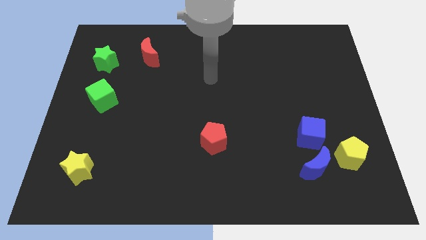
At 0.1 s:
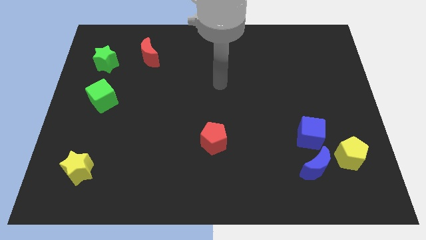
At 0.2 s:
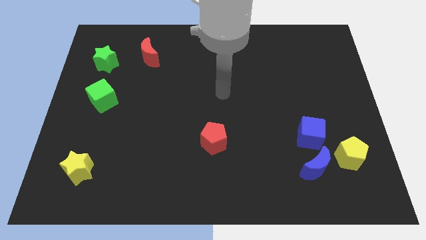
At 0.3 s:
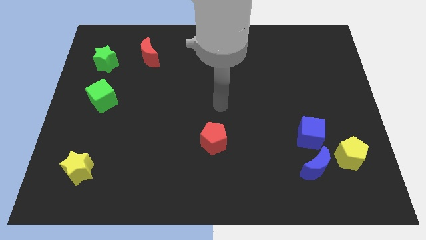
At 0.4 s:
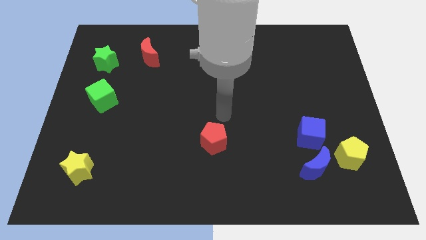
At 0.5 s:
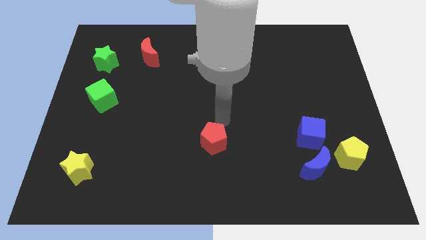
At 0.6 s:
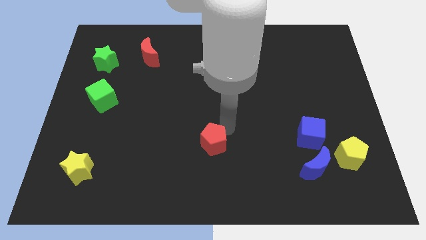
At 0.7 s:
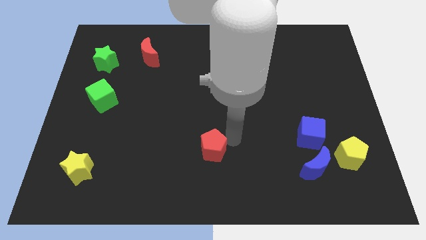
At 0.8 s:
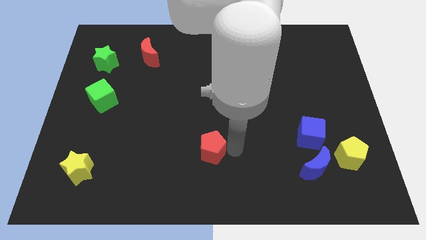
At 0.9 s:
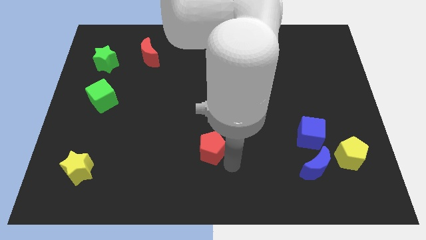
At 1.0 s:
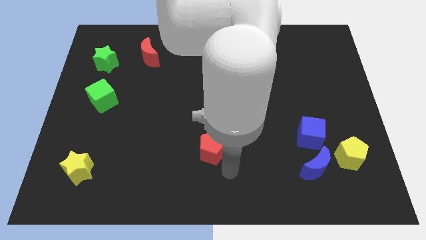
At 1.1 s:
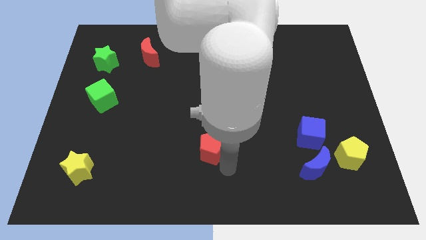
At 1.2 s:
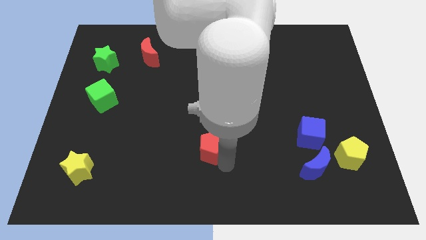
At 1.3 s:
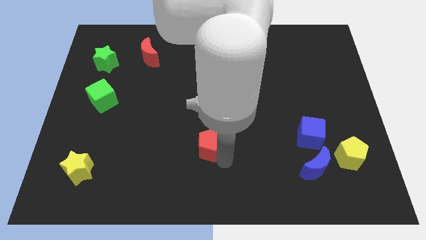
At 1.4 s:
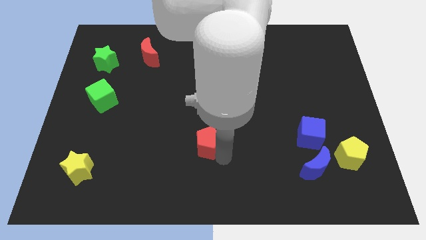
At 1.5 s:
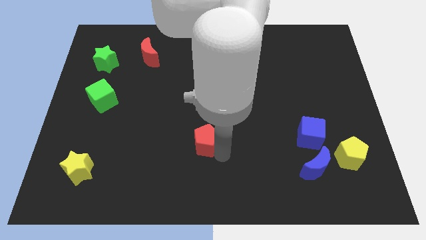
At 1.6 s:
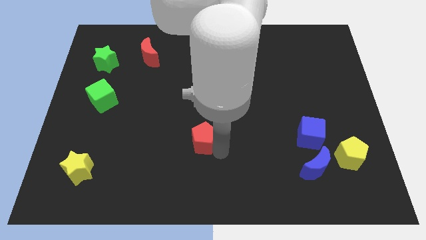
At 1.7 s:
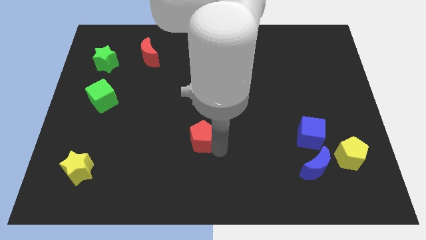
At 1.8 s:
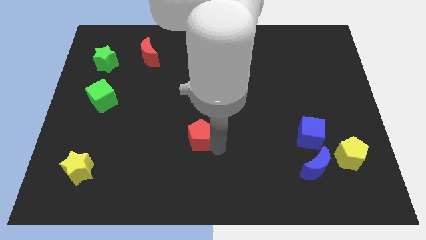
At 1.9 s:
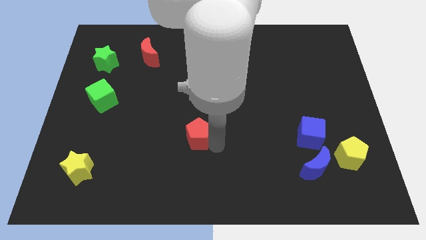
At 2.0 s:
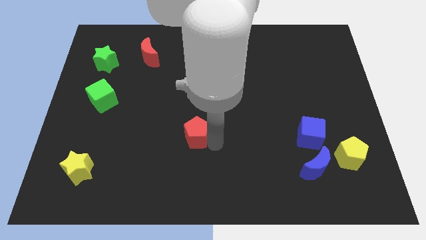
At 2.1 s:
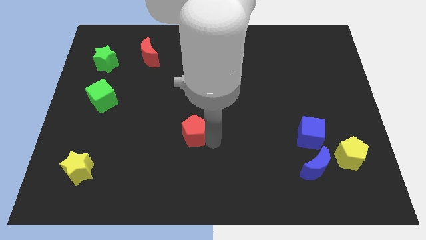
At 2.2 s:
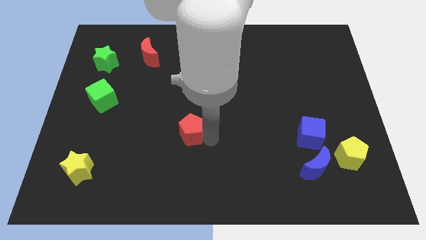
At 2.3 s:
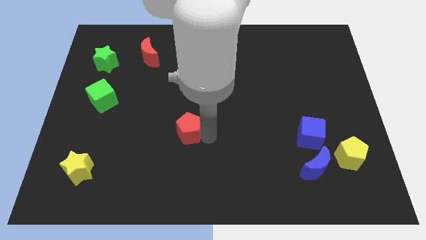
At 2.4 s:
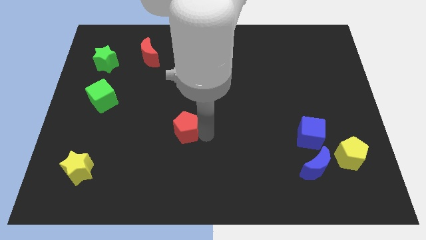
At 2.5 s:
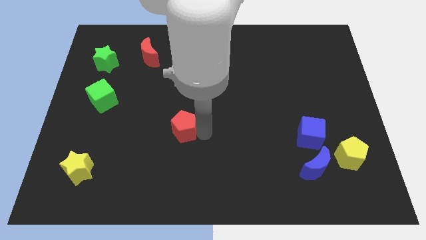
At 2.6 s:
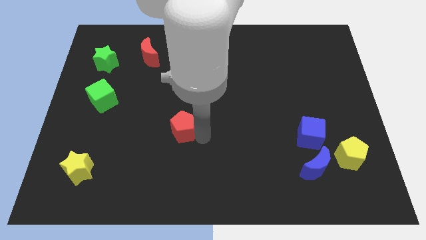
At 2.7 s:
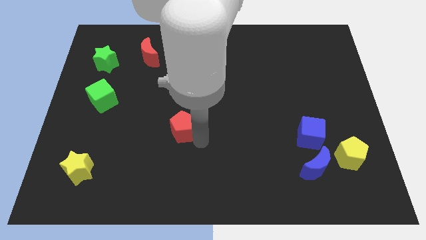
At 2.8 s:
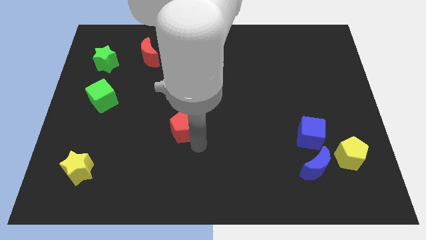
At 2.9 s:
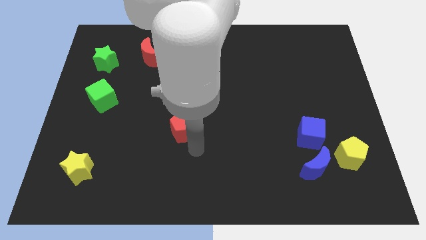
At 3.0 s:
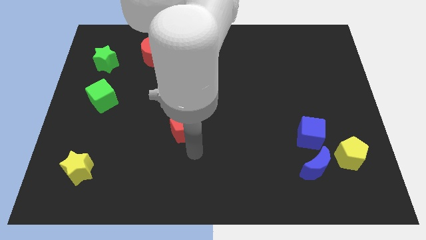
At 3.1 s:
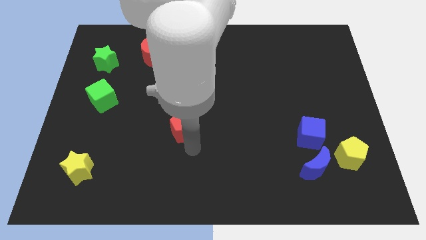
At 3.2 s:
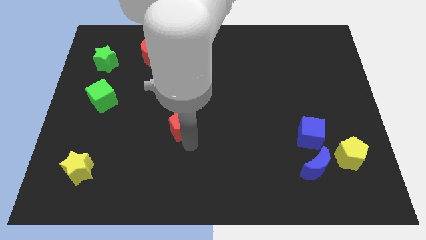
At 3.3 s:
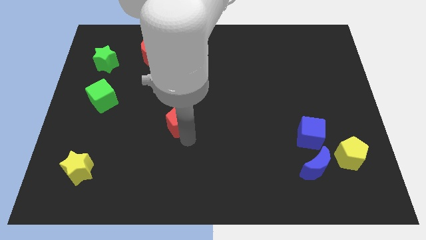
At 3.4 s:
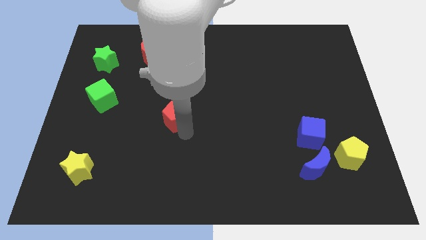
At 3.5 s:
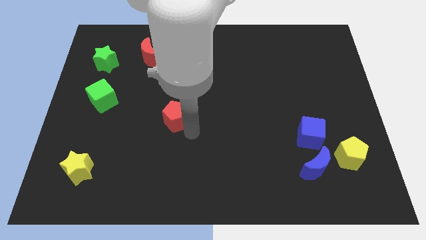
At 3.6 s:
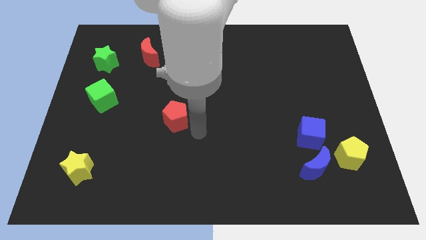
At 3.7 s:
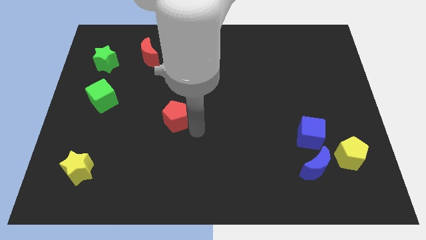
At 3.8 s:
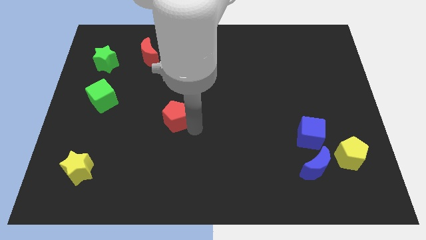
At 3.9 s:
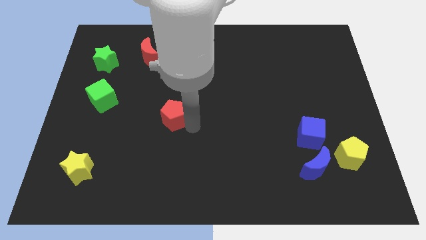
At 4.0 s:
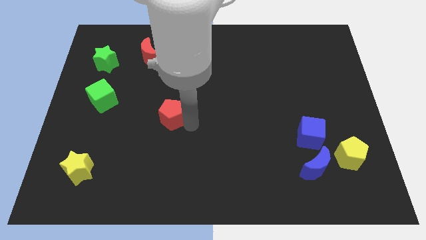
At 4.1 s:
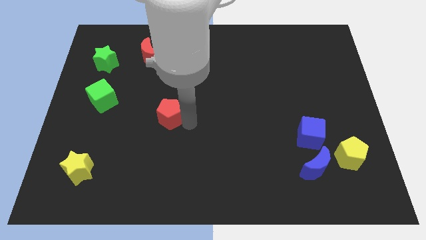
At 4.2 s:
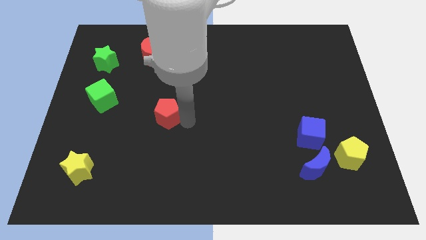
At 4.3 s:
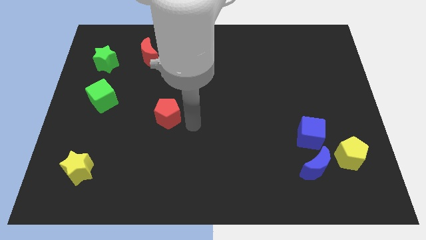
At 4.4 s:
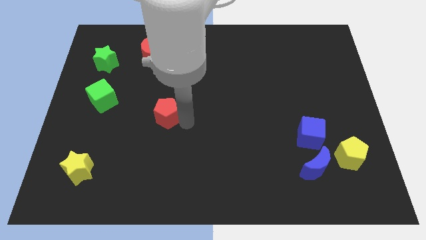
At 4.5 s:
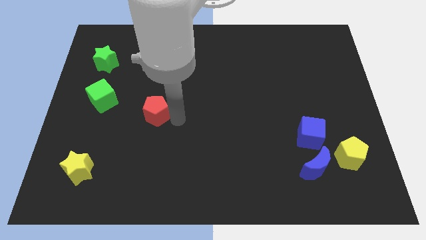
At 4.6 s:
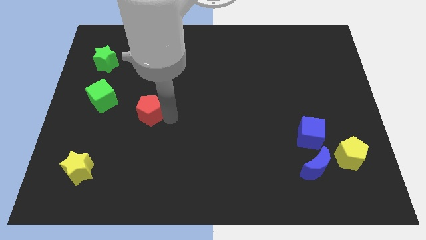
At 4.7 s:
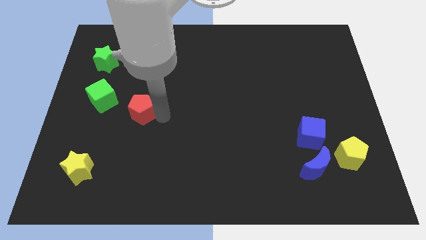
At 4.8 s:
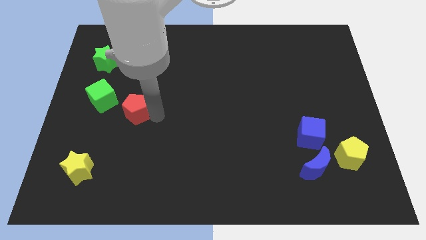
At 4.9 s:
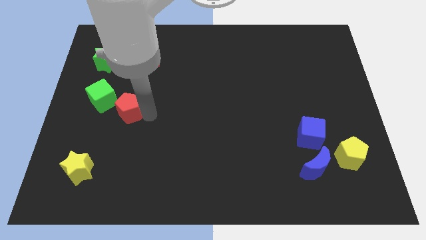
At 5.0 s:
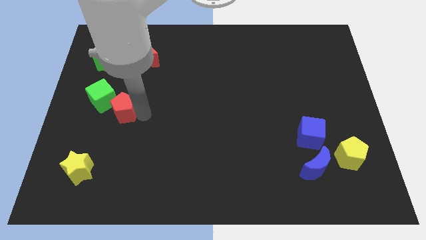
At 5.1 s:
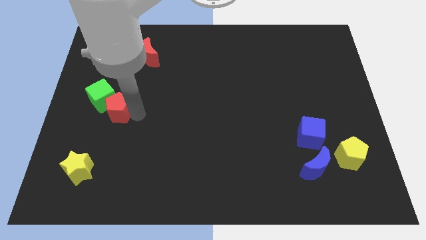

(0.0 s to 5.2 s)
slide the red pentagon next to the green cube

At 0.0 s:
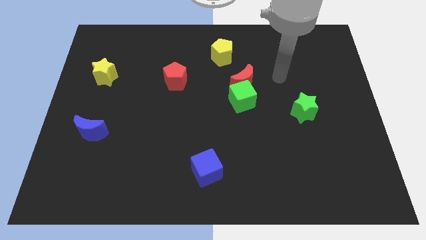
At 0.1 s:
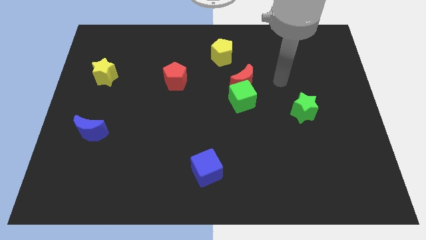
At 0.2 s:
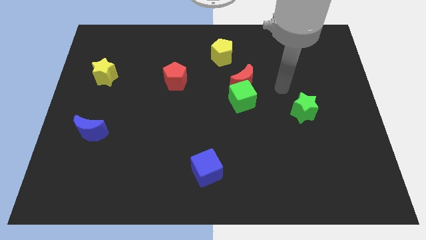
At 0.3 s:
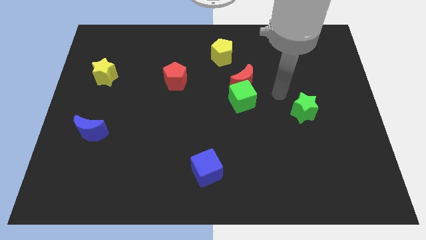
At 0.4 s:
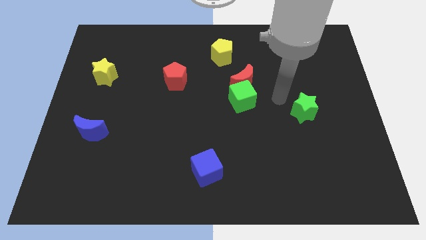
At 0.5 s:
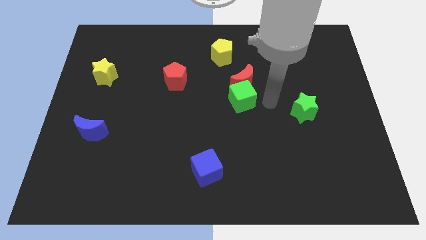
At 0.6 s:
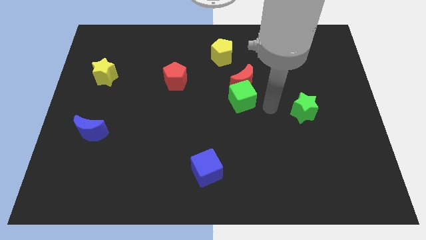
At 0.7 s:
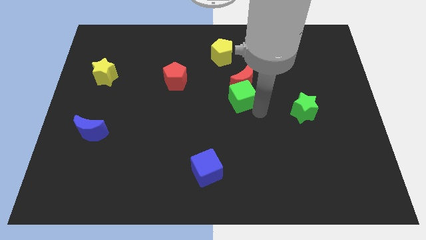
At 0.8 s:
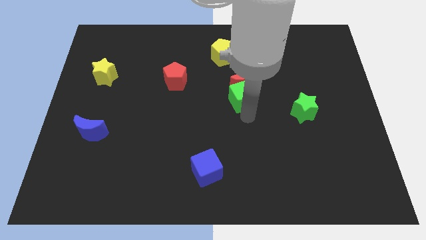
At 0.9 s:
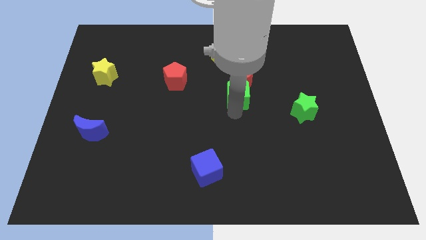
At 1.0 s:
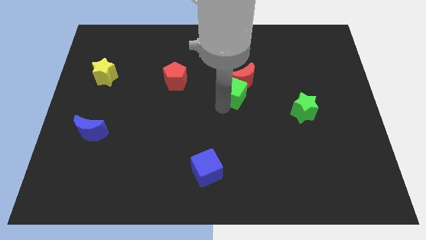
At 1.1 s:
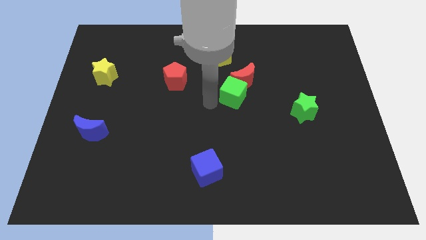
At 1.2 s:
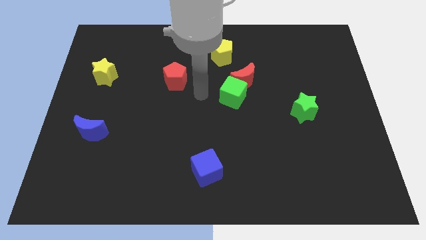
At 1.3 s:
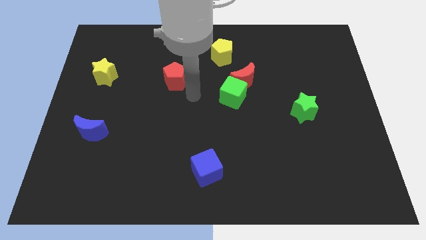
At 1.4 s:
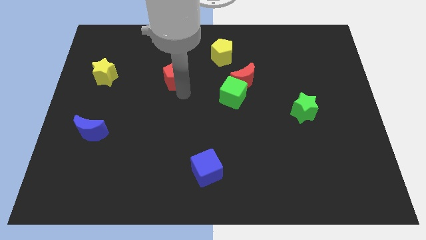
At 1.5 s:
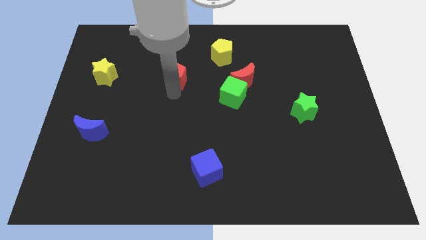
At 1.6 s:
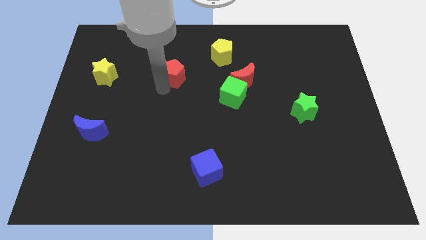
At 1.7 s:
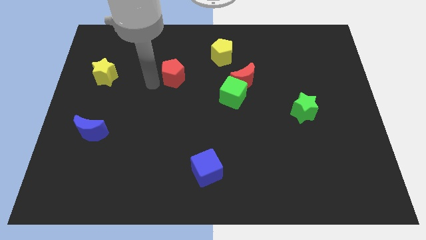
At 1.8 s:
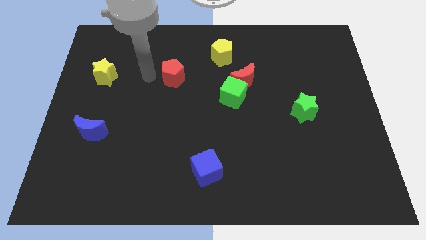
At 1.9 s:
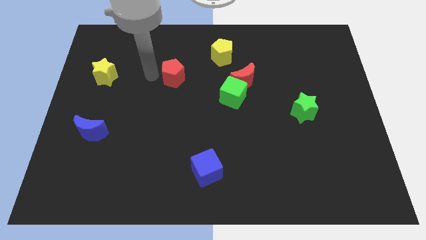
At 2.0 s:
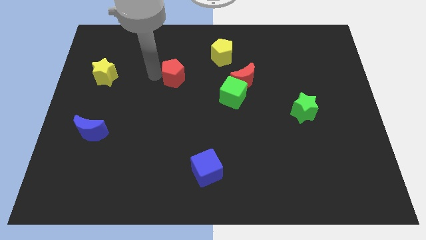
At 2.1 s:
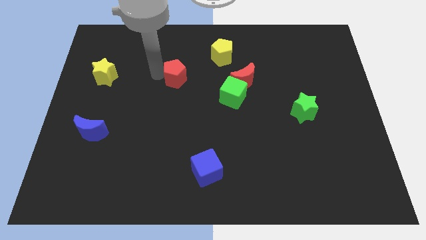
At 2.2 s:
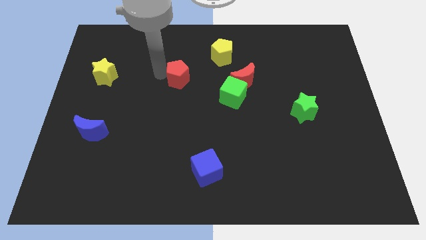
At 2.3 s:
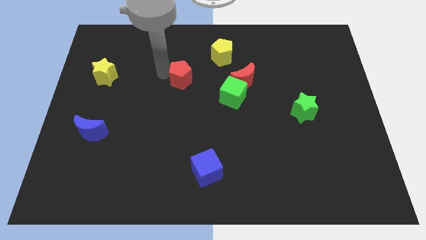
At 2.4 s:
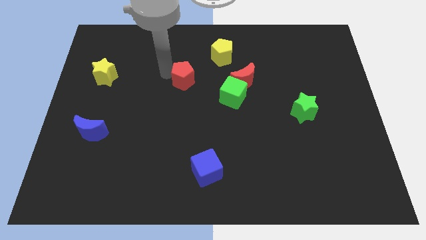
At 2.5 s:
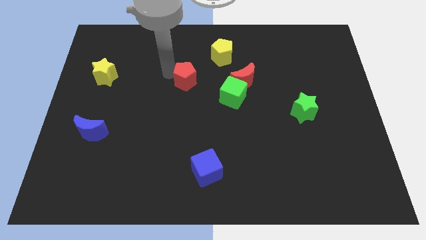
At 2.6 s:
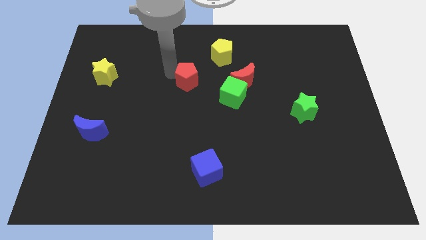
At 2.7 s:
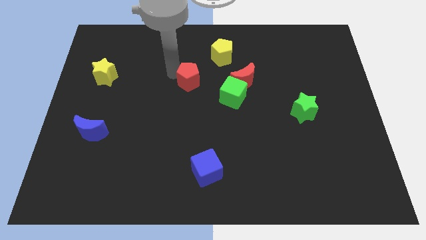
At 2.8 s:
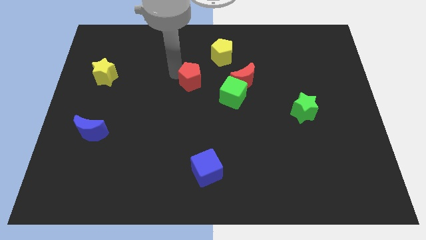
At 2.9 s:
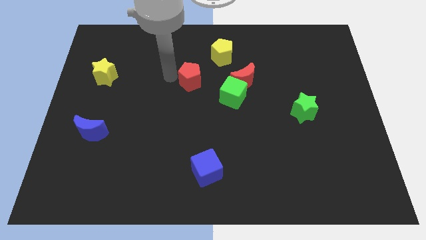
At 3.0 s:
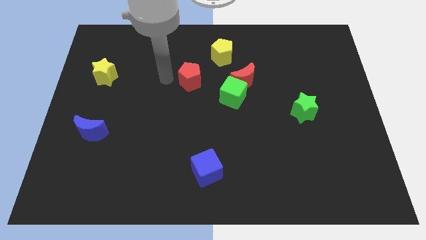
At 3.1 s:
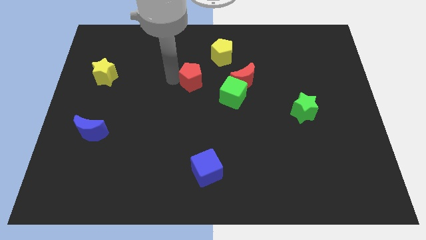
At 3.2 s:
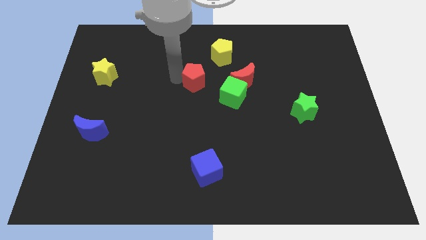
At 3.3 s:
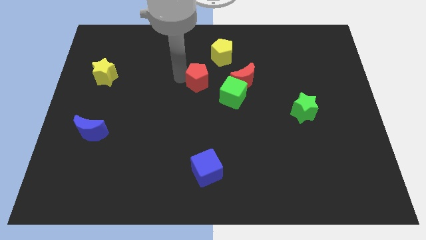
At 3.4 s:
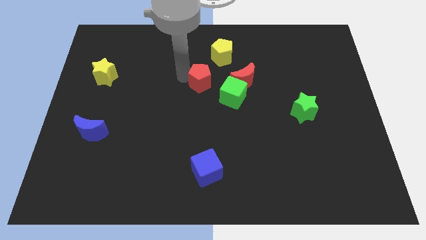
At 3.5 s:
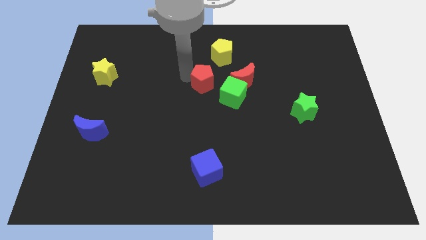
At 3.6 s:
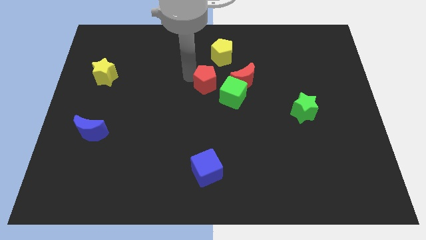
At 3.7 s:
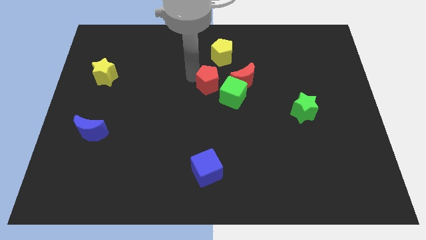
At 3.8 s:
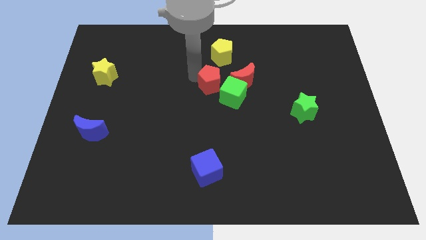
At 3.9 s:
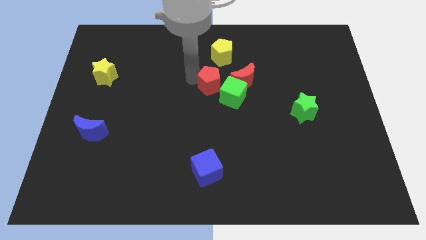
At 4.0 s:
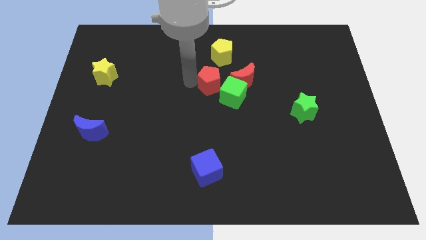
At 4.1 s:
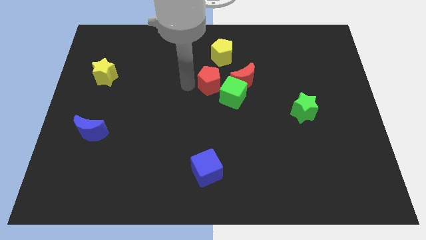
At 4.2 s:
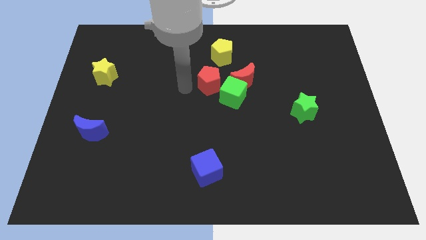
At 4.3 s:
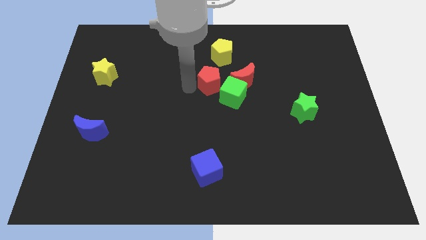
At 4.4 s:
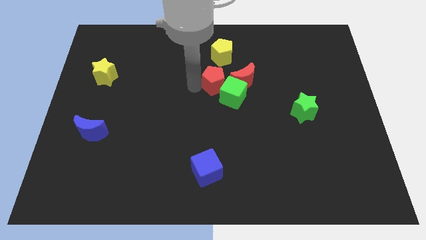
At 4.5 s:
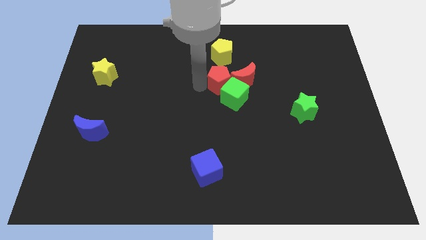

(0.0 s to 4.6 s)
push the red pentagon towards the red moon
